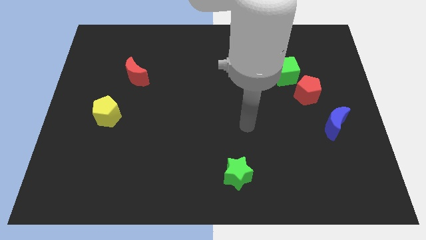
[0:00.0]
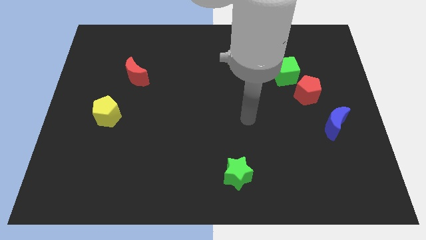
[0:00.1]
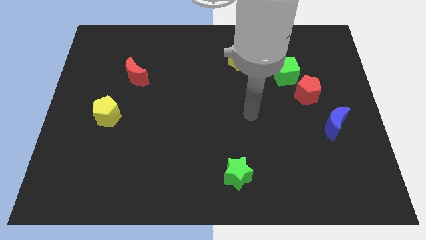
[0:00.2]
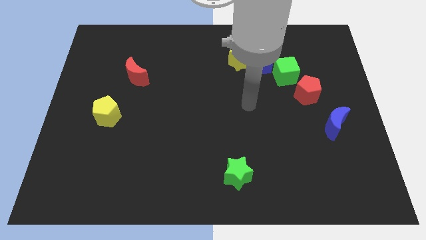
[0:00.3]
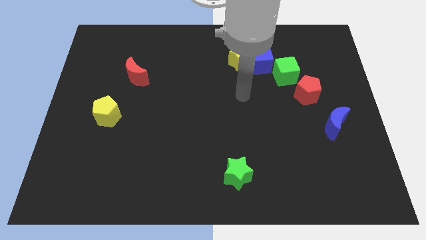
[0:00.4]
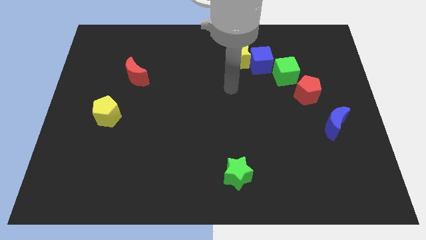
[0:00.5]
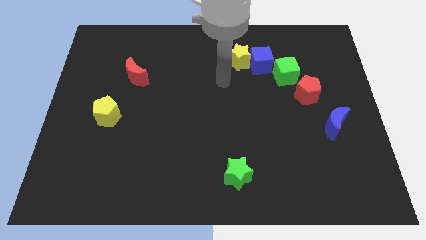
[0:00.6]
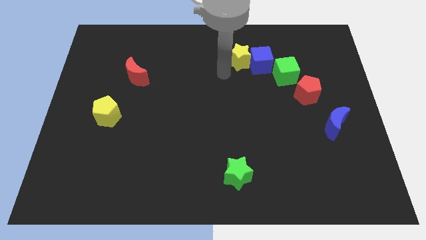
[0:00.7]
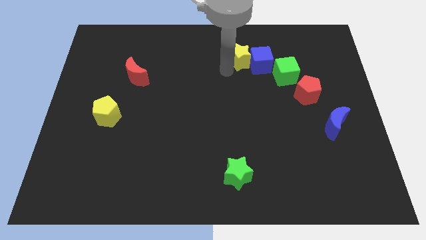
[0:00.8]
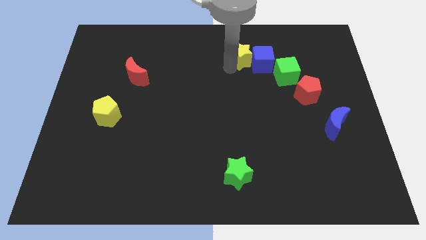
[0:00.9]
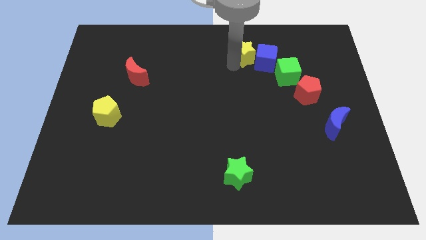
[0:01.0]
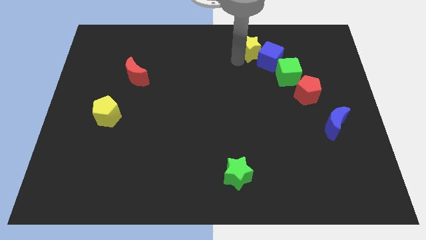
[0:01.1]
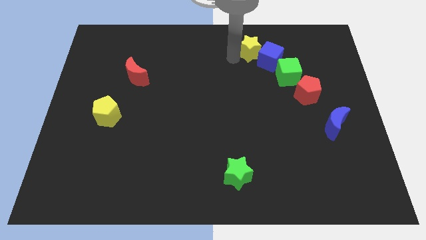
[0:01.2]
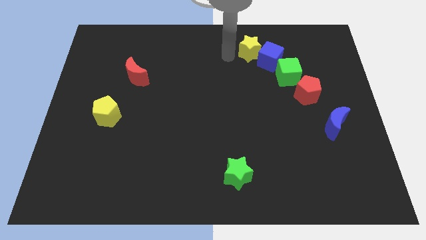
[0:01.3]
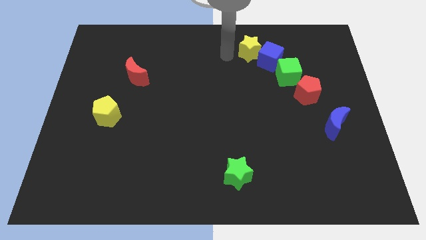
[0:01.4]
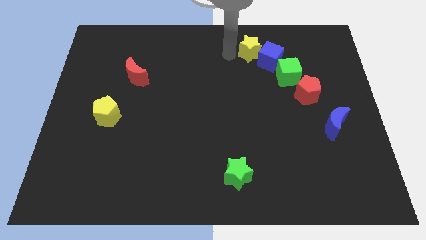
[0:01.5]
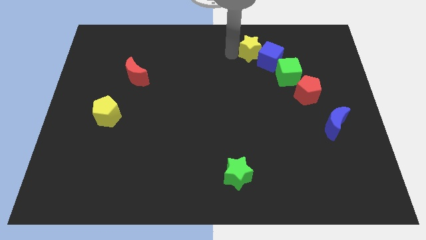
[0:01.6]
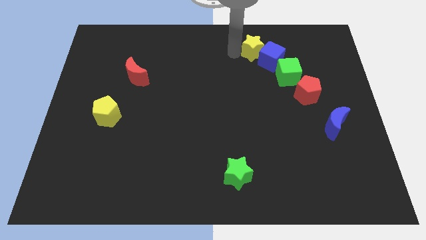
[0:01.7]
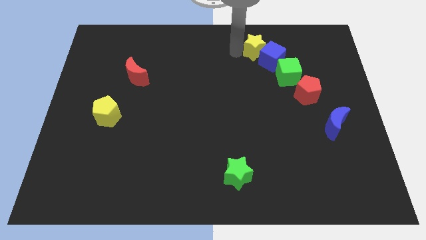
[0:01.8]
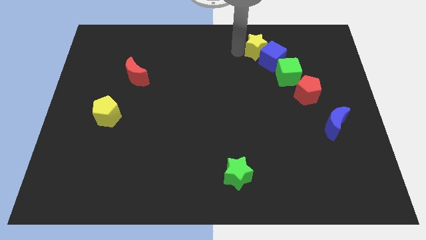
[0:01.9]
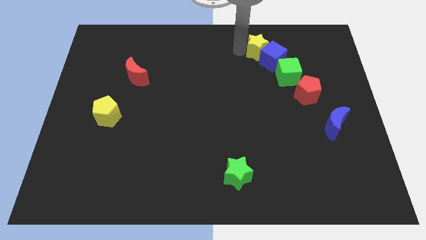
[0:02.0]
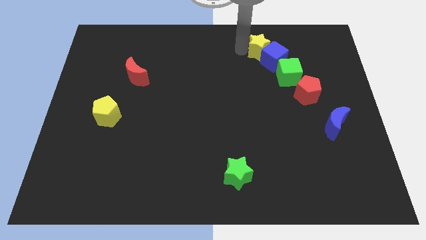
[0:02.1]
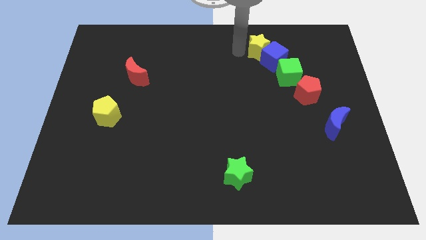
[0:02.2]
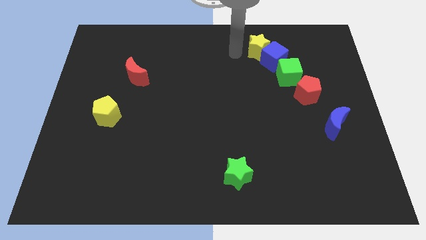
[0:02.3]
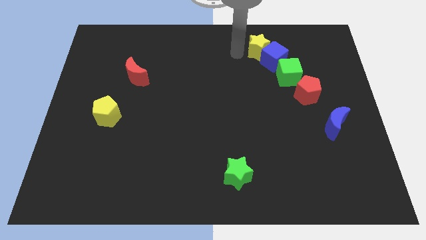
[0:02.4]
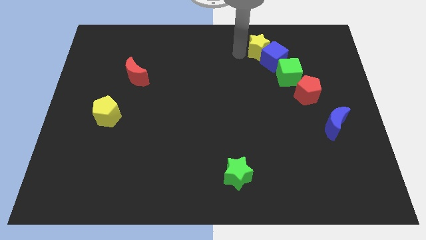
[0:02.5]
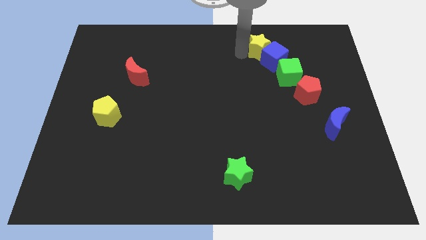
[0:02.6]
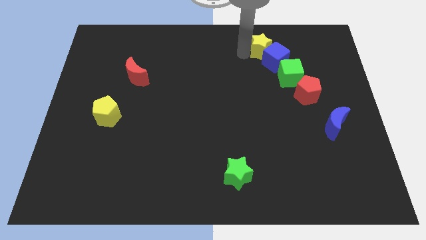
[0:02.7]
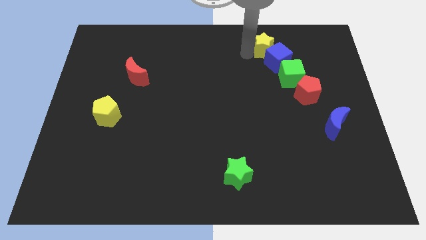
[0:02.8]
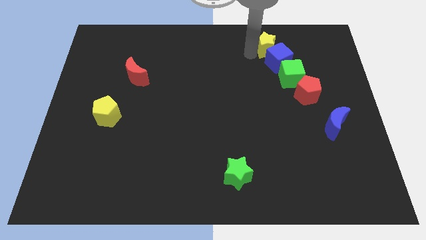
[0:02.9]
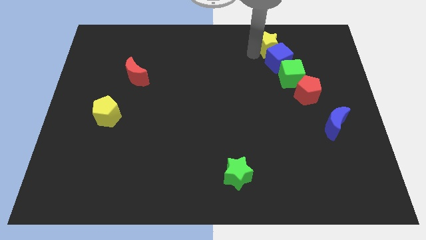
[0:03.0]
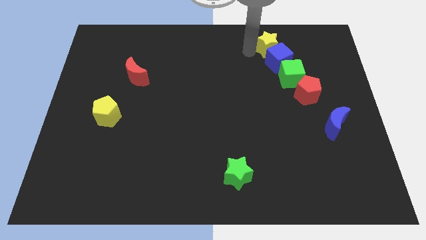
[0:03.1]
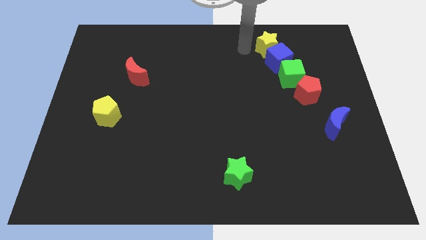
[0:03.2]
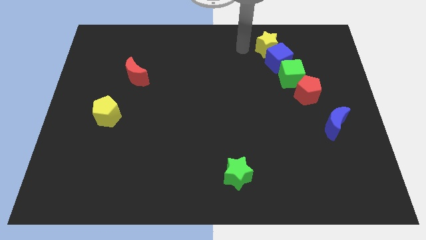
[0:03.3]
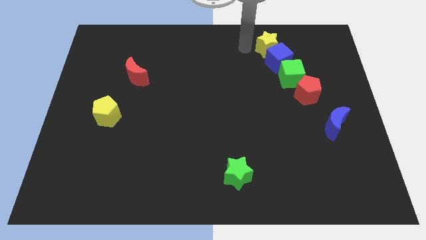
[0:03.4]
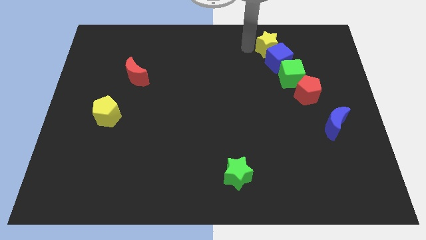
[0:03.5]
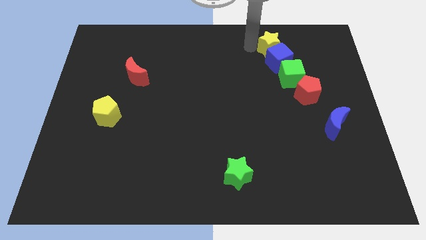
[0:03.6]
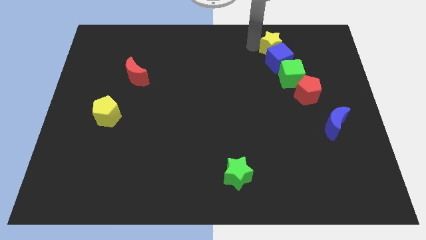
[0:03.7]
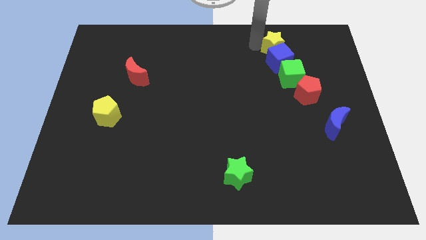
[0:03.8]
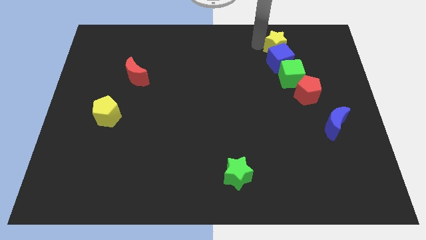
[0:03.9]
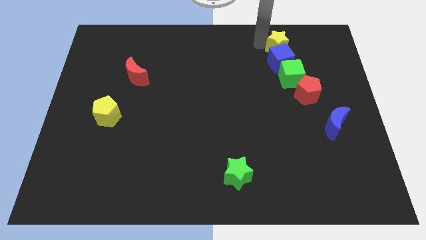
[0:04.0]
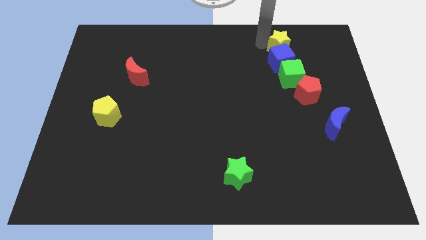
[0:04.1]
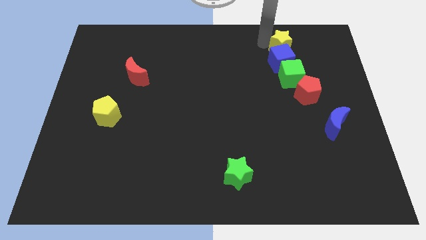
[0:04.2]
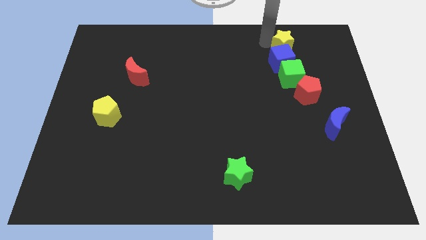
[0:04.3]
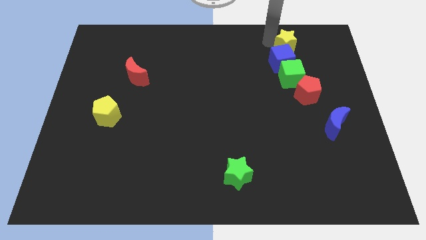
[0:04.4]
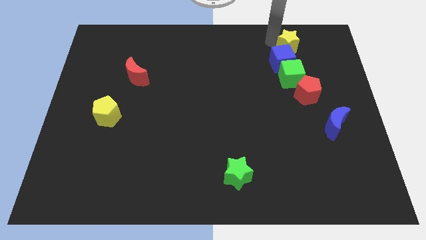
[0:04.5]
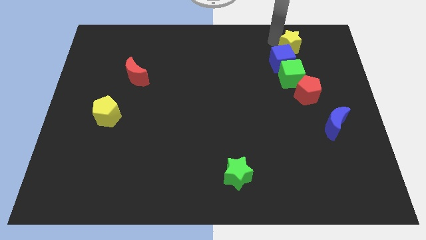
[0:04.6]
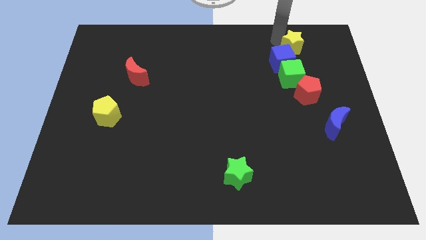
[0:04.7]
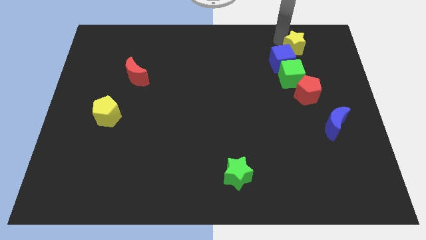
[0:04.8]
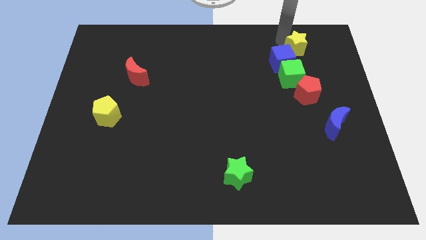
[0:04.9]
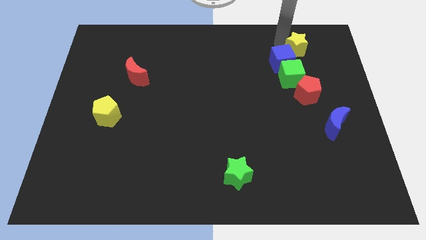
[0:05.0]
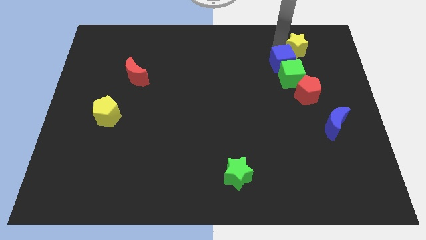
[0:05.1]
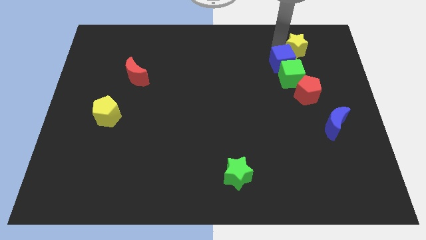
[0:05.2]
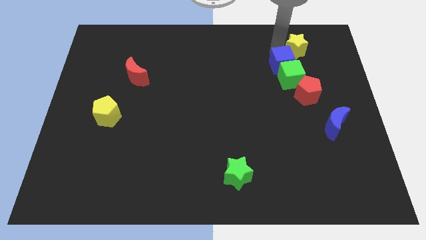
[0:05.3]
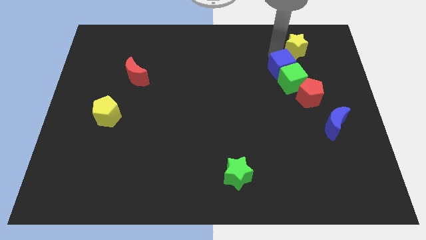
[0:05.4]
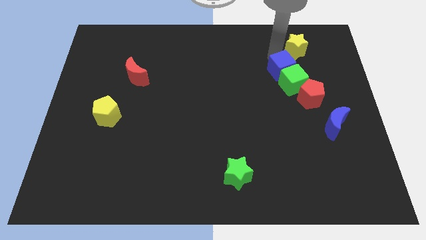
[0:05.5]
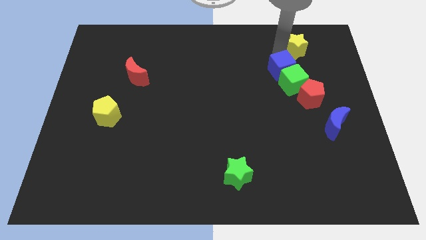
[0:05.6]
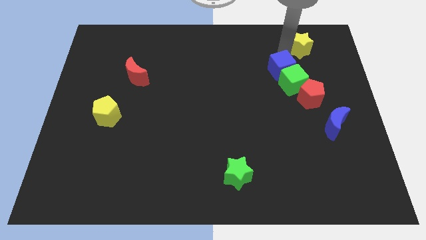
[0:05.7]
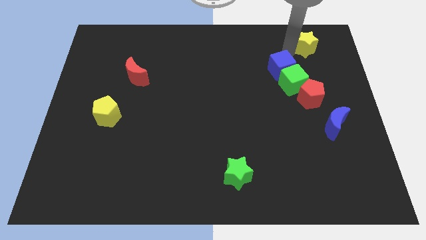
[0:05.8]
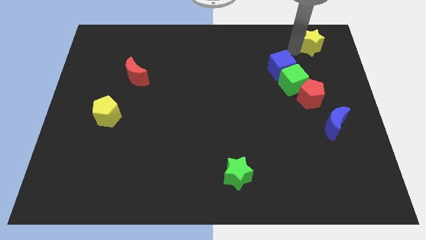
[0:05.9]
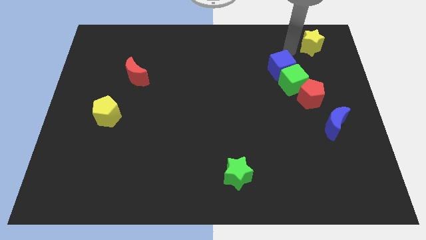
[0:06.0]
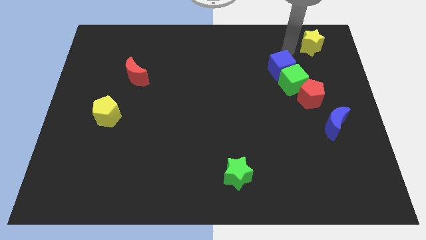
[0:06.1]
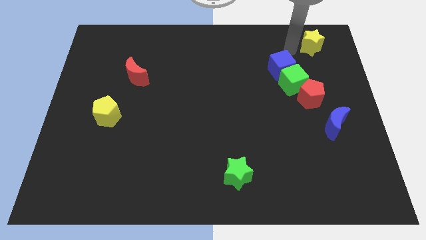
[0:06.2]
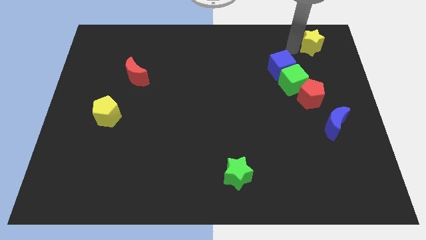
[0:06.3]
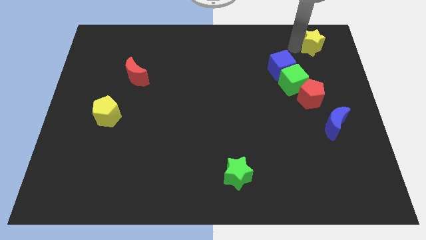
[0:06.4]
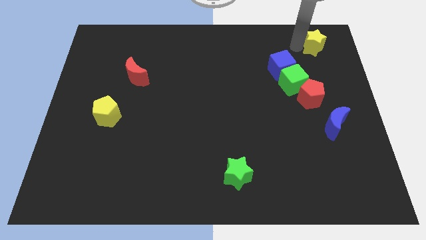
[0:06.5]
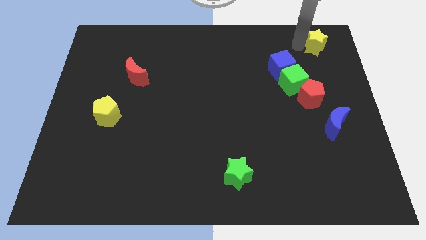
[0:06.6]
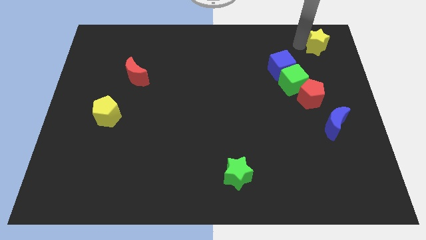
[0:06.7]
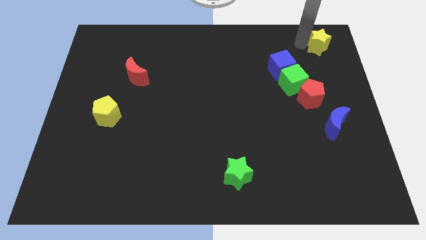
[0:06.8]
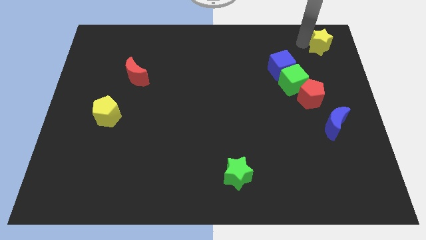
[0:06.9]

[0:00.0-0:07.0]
put the yellow star to the top right corner
